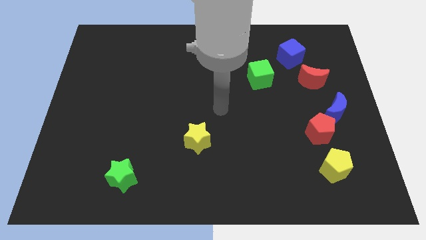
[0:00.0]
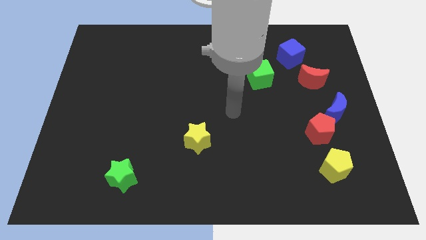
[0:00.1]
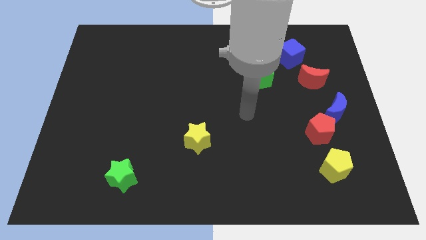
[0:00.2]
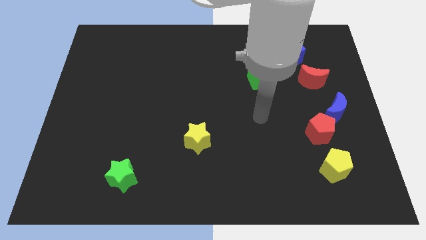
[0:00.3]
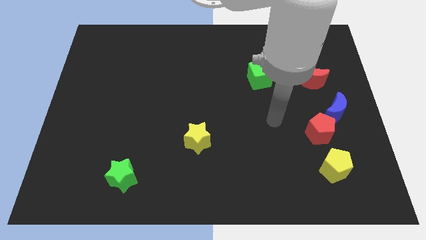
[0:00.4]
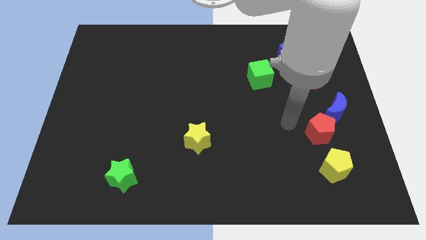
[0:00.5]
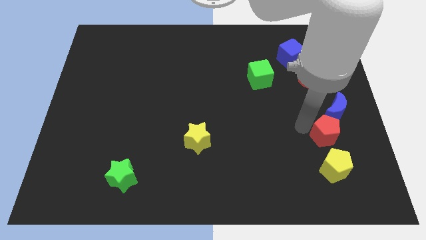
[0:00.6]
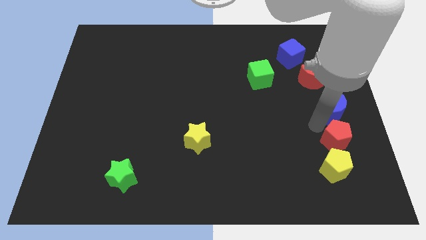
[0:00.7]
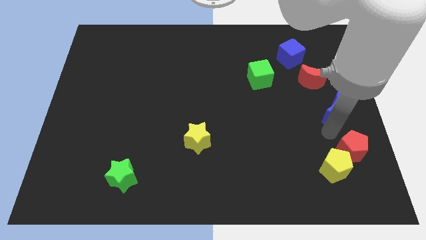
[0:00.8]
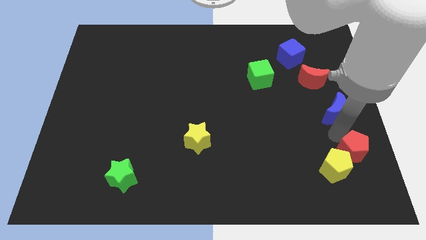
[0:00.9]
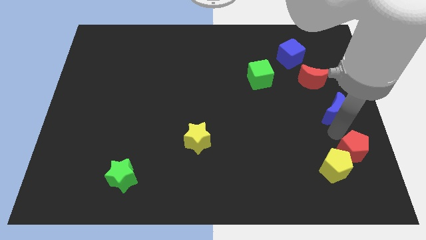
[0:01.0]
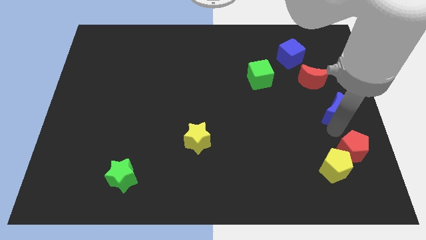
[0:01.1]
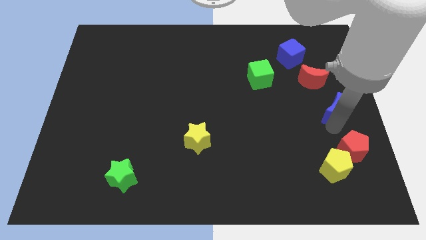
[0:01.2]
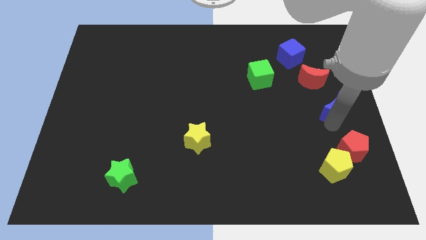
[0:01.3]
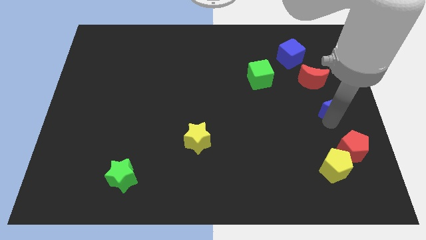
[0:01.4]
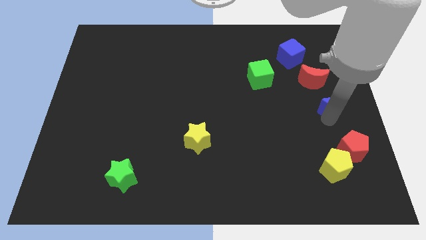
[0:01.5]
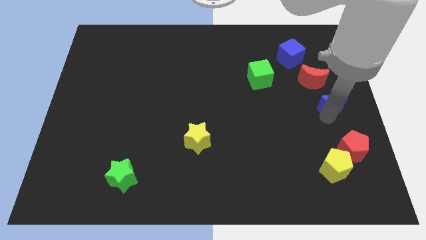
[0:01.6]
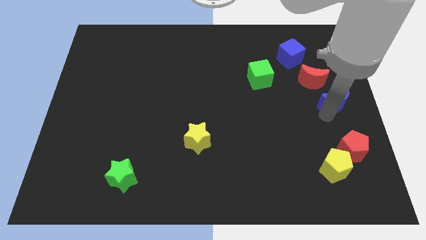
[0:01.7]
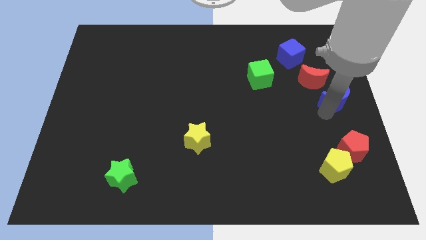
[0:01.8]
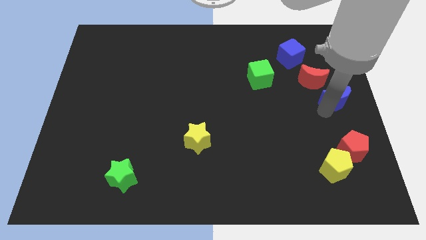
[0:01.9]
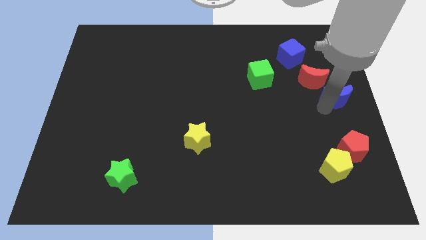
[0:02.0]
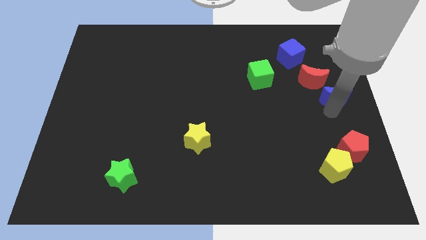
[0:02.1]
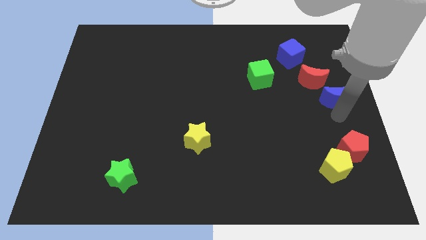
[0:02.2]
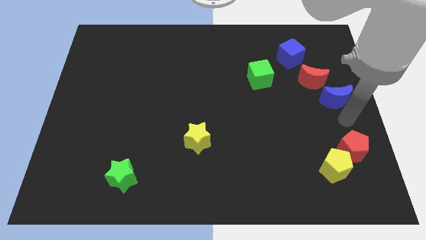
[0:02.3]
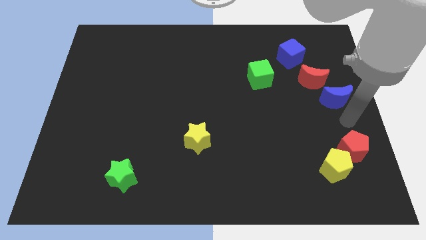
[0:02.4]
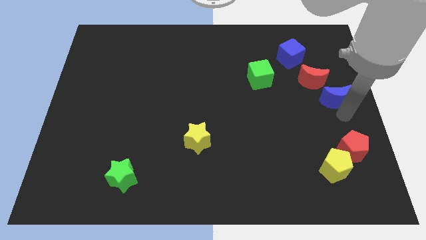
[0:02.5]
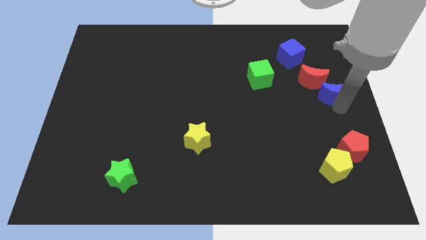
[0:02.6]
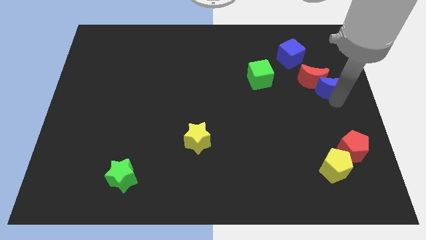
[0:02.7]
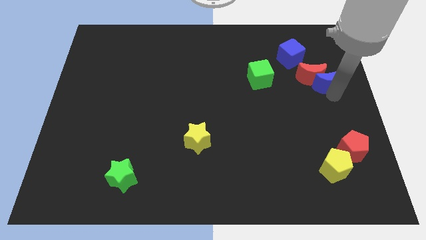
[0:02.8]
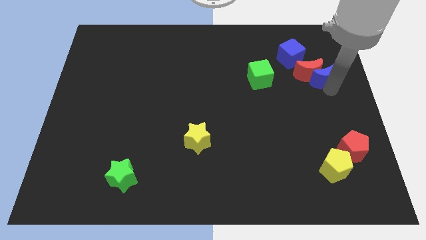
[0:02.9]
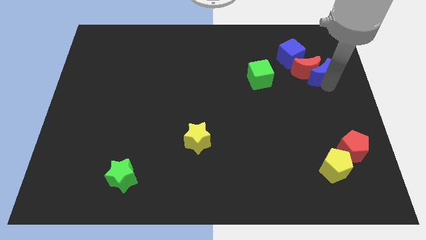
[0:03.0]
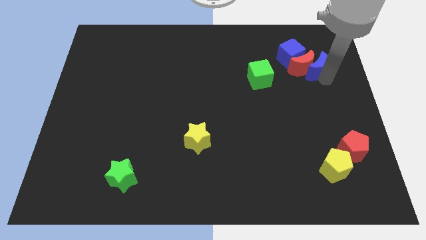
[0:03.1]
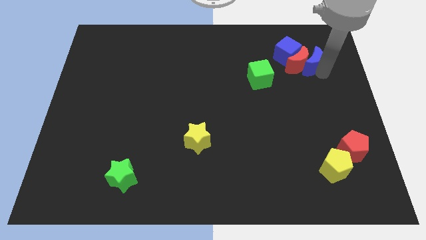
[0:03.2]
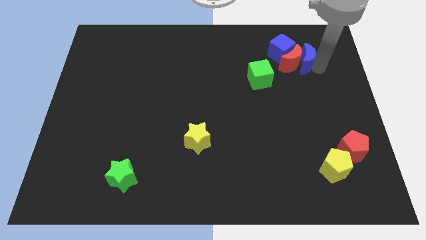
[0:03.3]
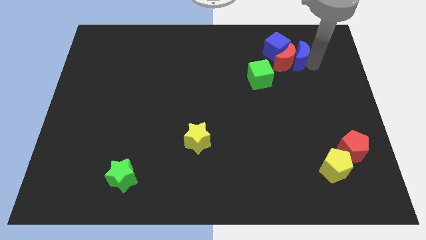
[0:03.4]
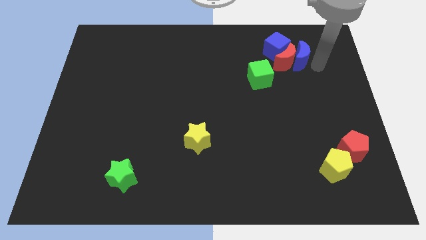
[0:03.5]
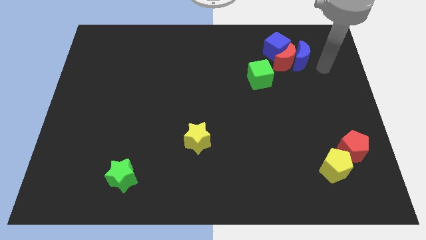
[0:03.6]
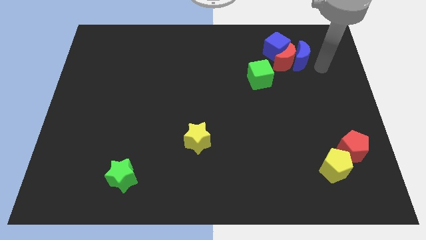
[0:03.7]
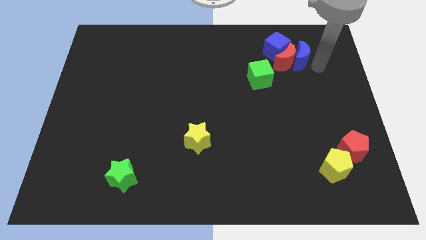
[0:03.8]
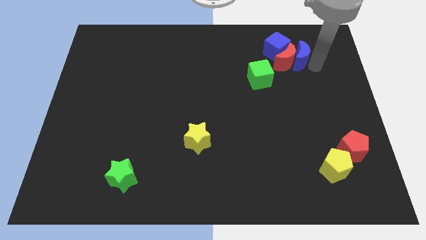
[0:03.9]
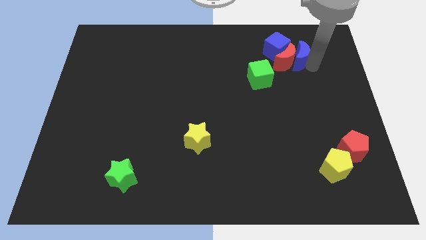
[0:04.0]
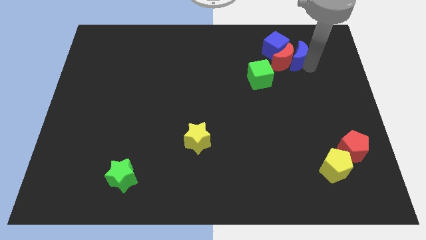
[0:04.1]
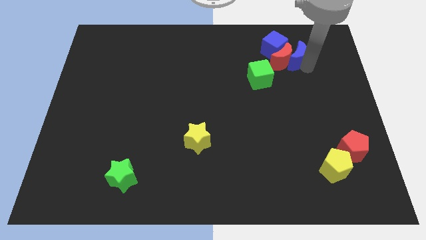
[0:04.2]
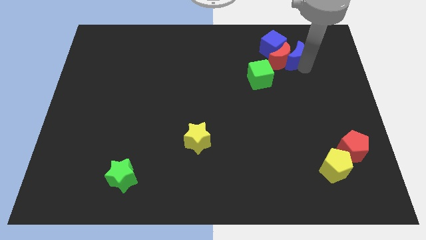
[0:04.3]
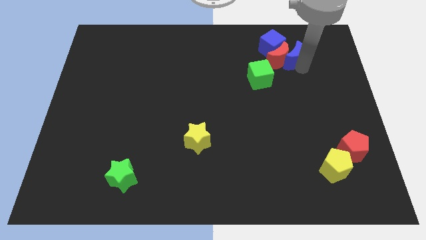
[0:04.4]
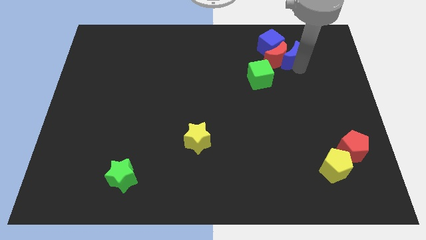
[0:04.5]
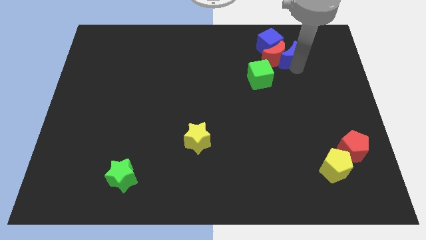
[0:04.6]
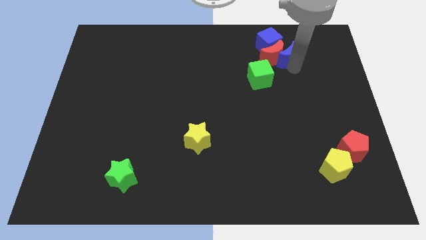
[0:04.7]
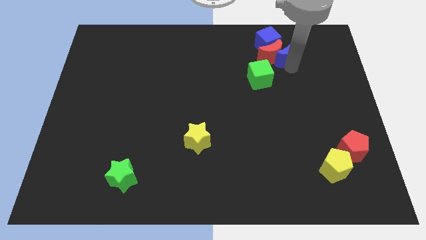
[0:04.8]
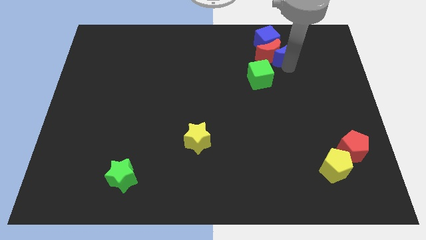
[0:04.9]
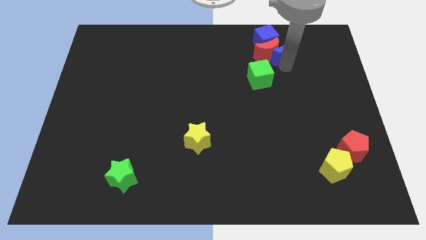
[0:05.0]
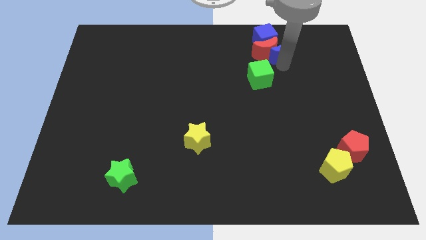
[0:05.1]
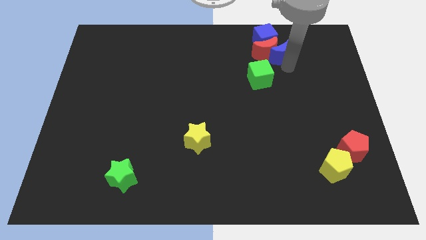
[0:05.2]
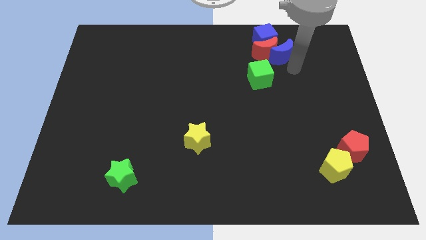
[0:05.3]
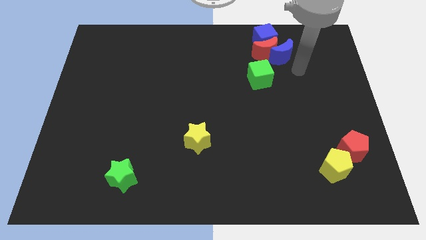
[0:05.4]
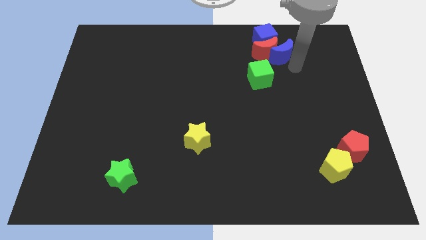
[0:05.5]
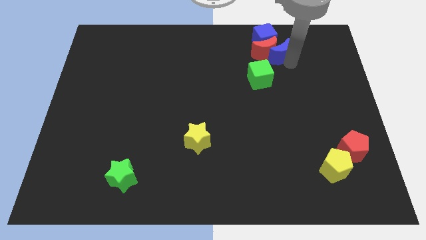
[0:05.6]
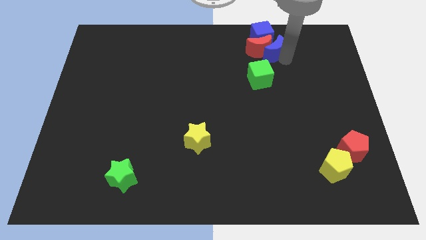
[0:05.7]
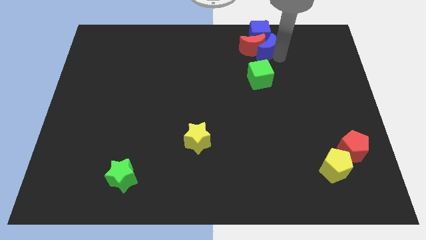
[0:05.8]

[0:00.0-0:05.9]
put the blue moon next to the blue cube
